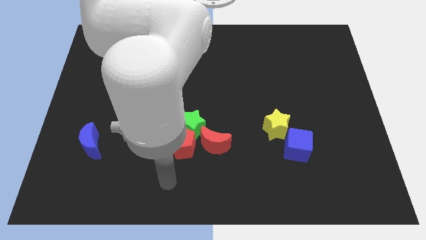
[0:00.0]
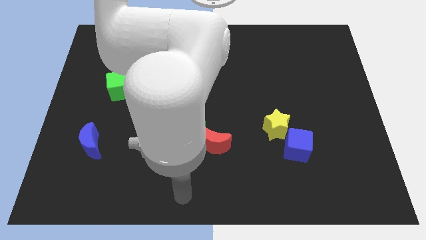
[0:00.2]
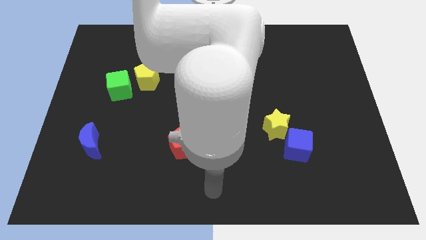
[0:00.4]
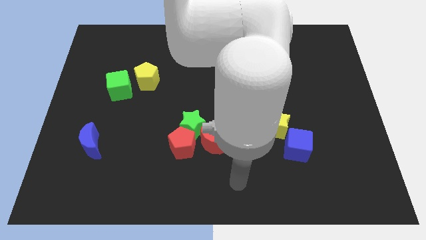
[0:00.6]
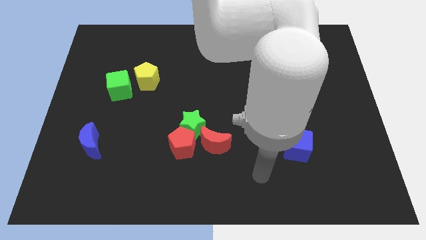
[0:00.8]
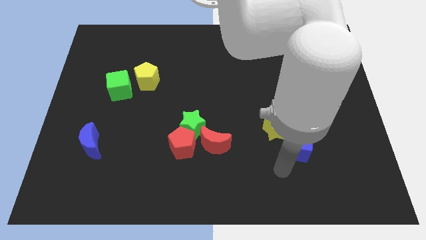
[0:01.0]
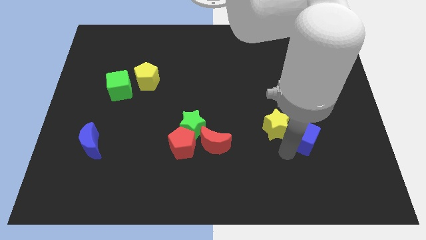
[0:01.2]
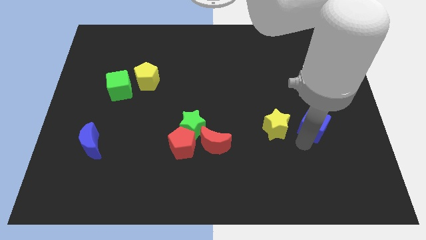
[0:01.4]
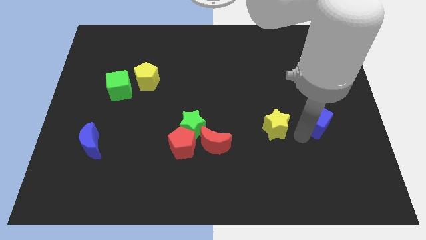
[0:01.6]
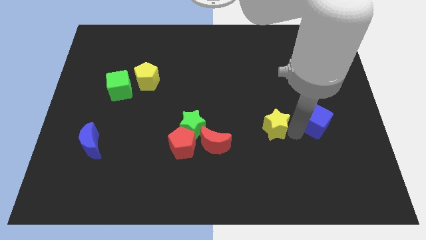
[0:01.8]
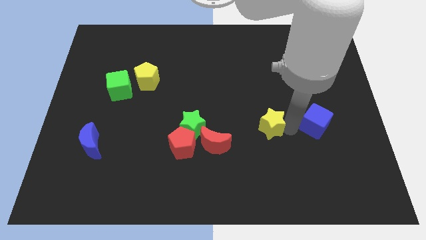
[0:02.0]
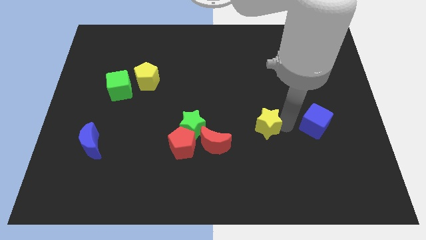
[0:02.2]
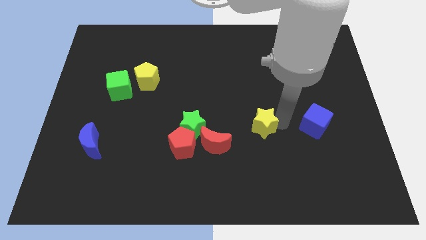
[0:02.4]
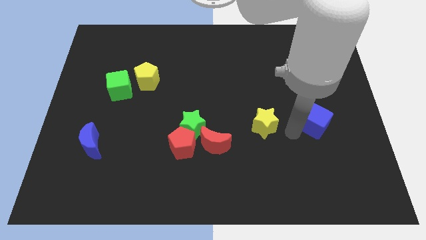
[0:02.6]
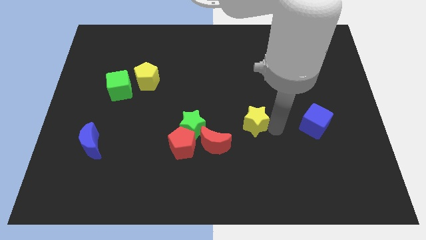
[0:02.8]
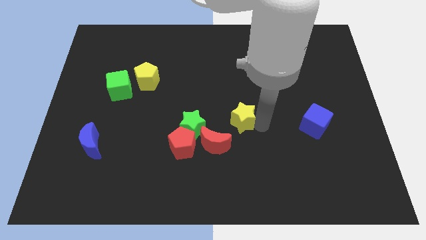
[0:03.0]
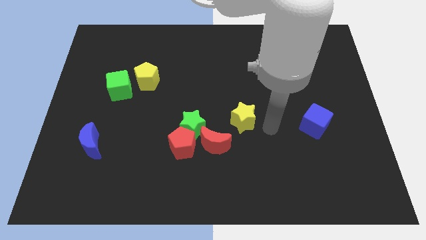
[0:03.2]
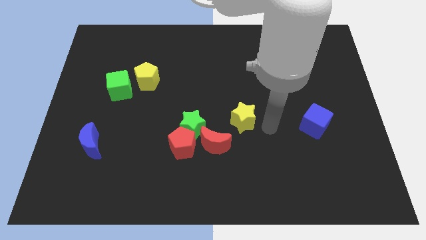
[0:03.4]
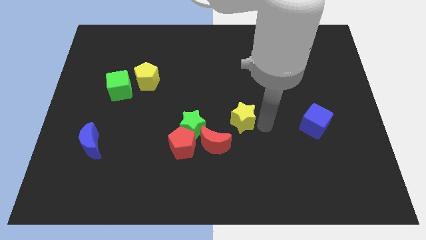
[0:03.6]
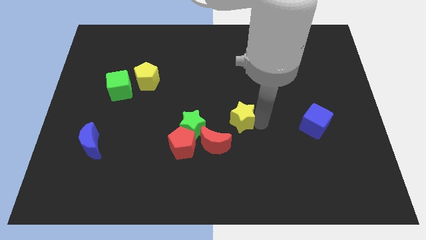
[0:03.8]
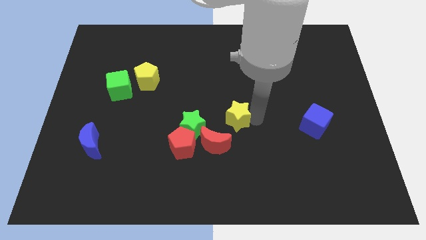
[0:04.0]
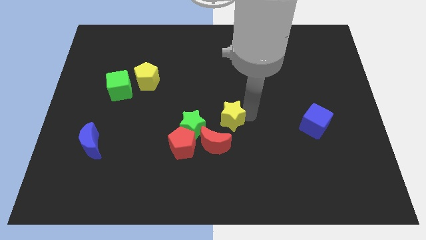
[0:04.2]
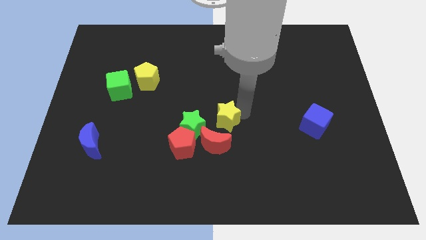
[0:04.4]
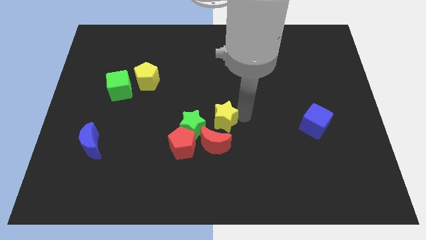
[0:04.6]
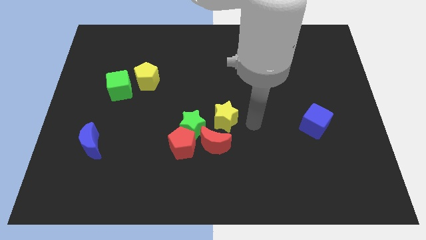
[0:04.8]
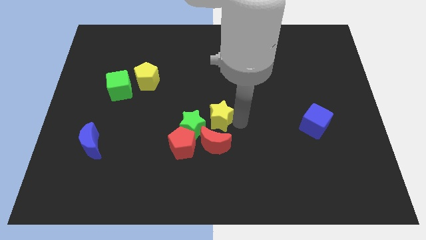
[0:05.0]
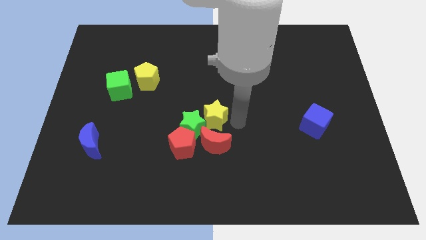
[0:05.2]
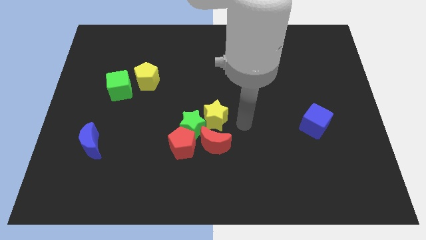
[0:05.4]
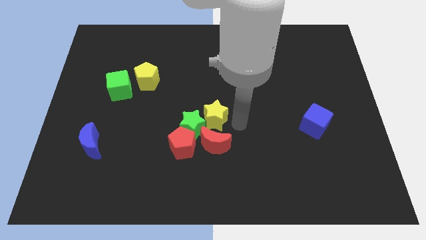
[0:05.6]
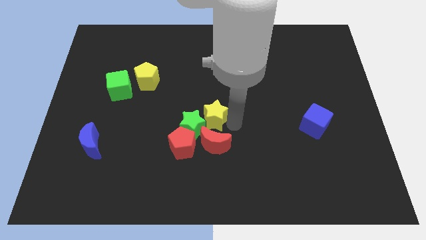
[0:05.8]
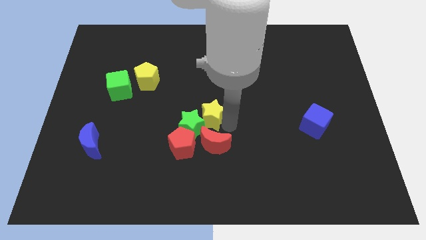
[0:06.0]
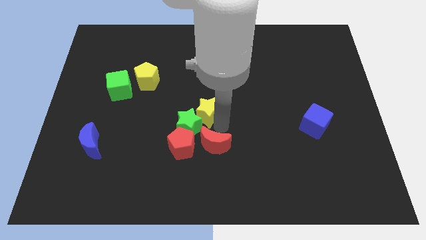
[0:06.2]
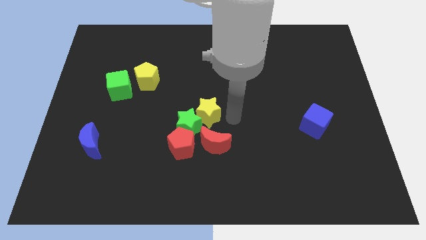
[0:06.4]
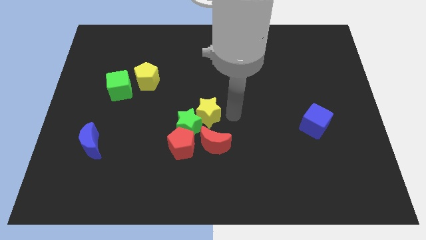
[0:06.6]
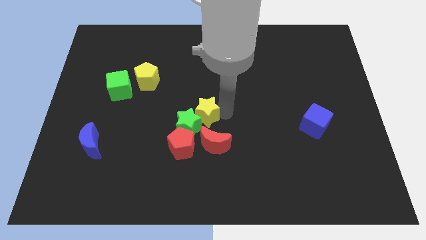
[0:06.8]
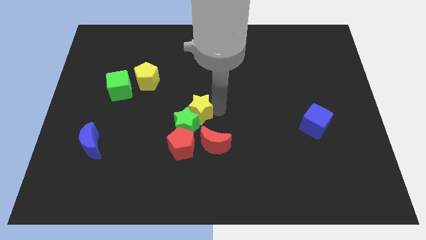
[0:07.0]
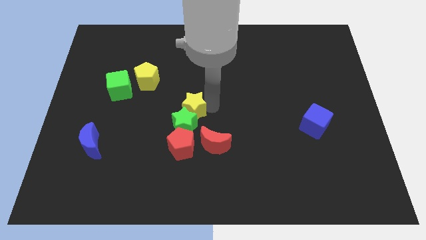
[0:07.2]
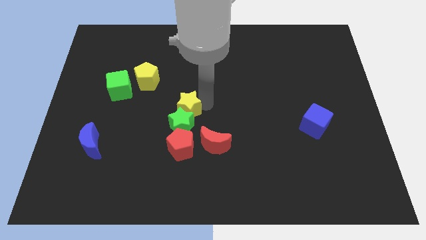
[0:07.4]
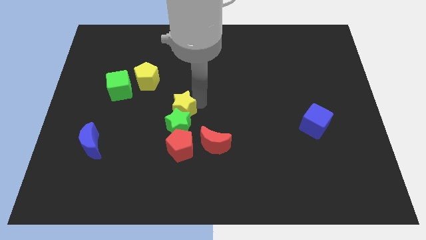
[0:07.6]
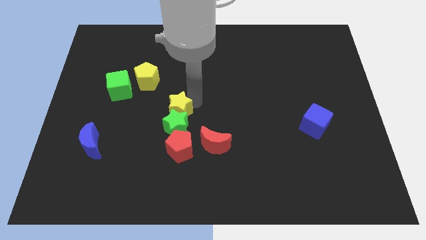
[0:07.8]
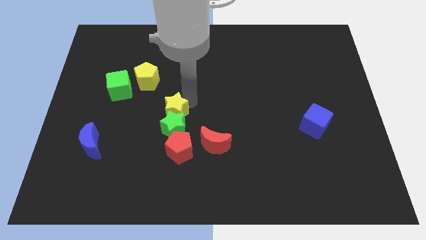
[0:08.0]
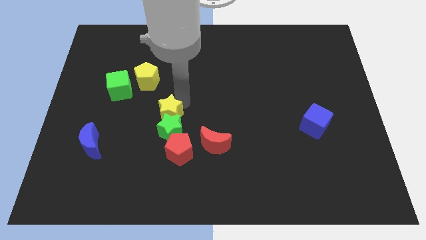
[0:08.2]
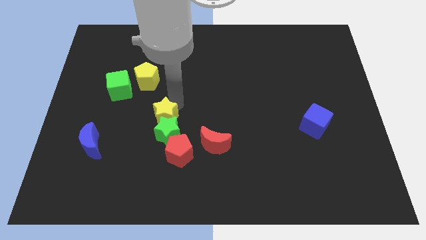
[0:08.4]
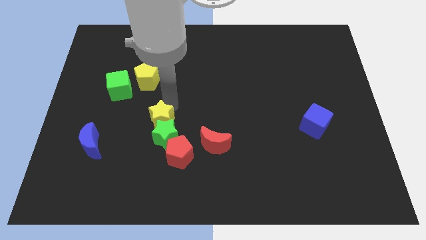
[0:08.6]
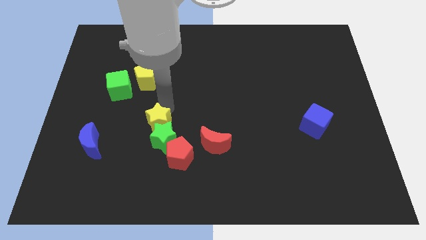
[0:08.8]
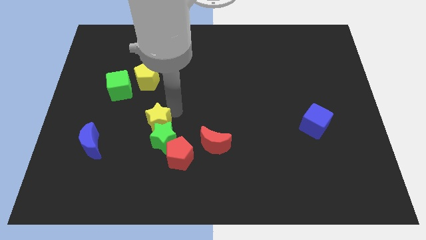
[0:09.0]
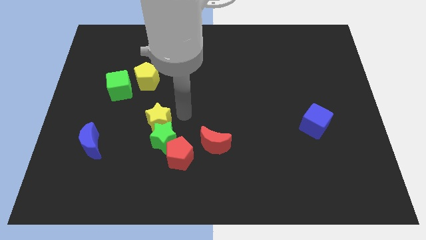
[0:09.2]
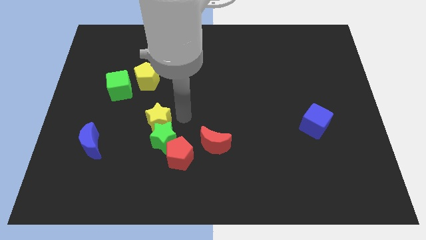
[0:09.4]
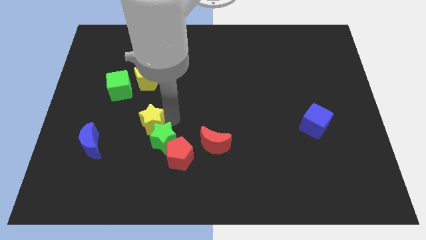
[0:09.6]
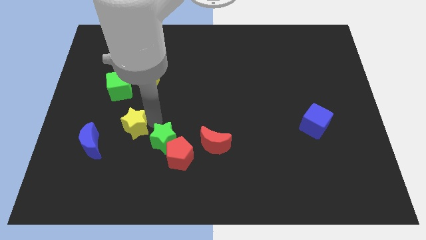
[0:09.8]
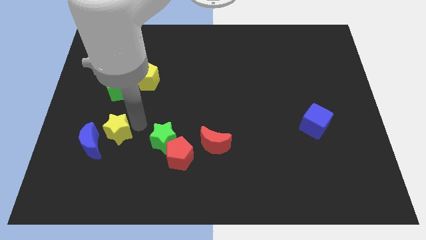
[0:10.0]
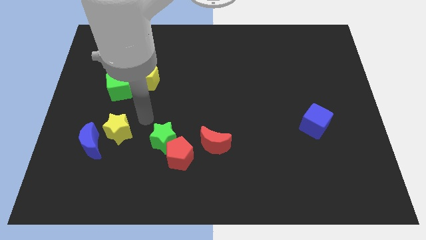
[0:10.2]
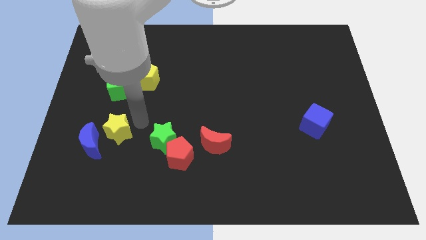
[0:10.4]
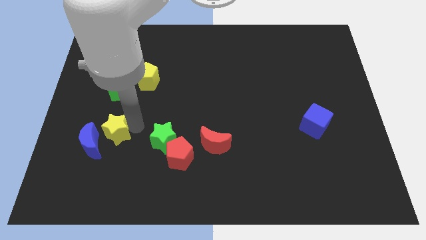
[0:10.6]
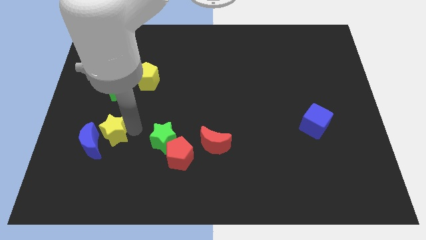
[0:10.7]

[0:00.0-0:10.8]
push the yellow star towards the blue moon

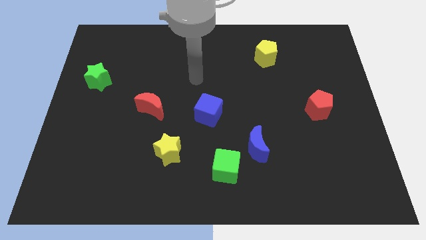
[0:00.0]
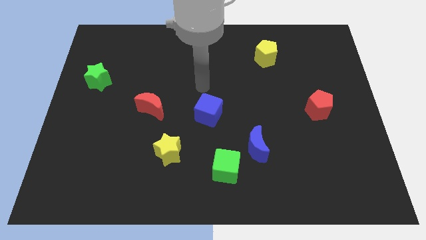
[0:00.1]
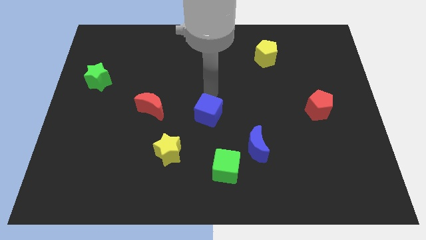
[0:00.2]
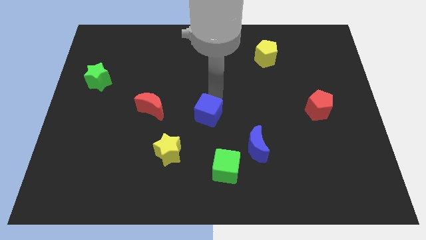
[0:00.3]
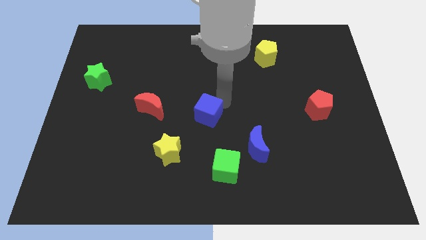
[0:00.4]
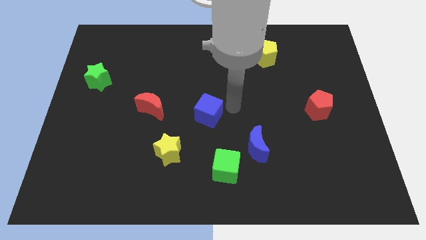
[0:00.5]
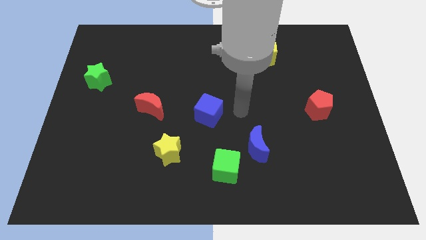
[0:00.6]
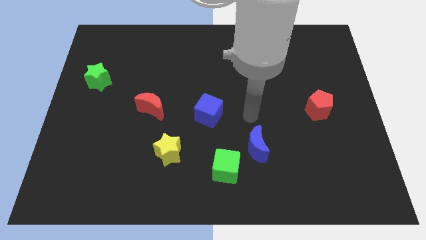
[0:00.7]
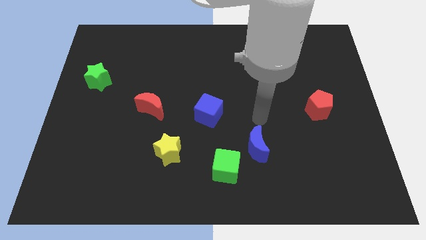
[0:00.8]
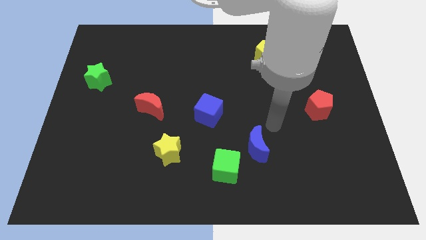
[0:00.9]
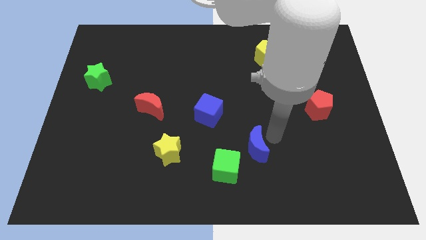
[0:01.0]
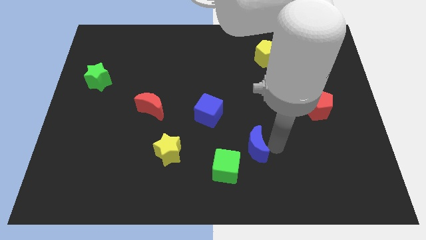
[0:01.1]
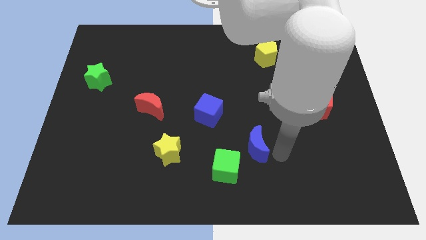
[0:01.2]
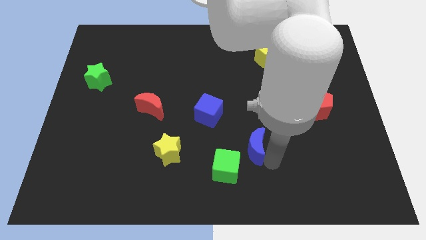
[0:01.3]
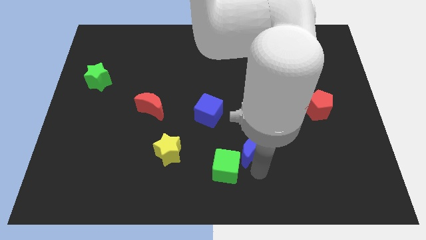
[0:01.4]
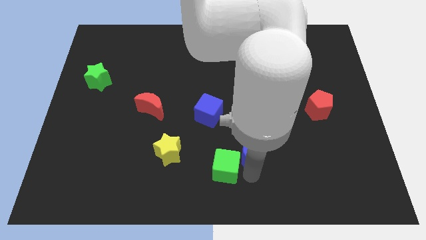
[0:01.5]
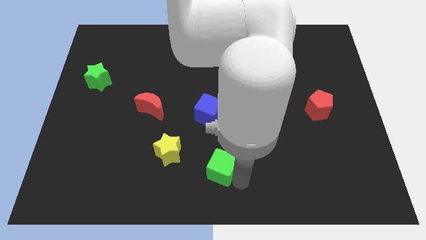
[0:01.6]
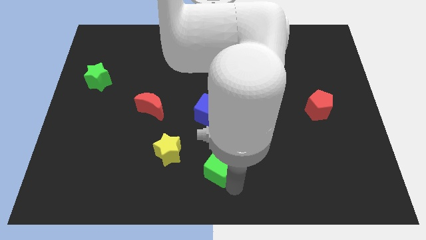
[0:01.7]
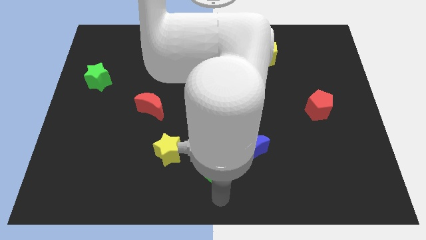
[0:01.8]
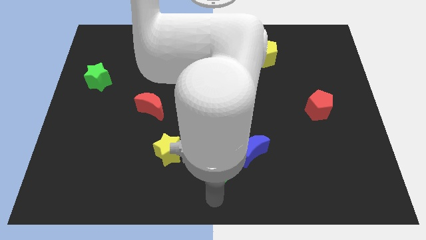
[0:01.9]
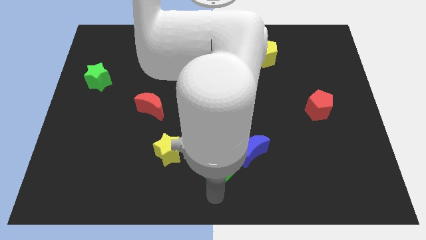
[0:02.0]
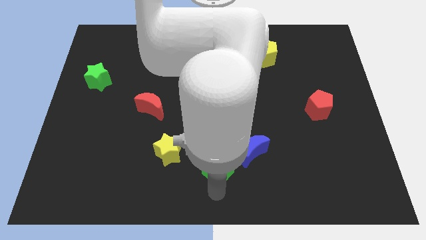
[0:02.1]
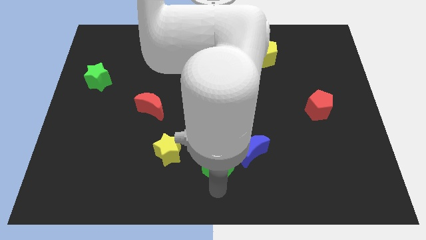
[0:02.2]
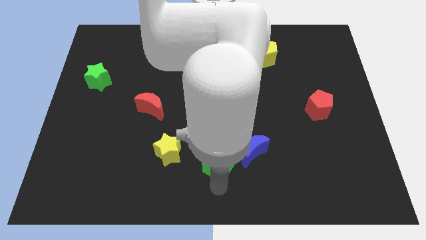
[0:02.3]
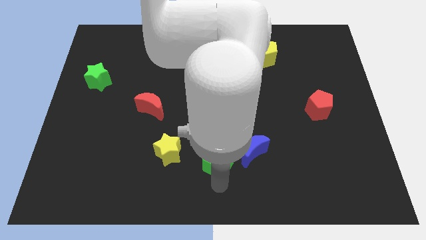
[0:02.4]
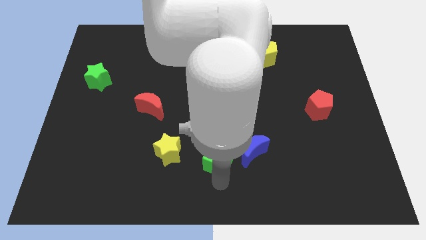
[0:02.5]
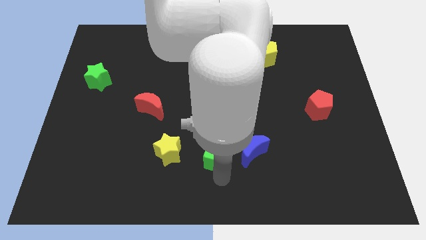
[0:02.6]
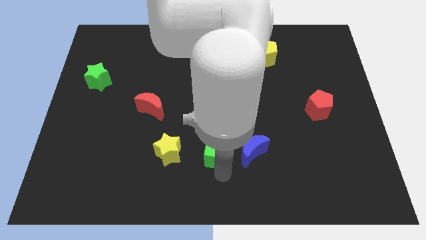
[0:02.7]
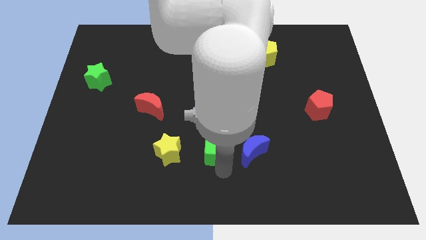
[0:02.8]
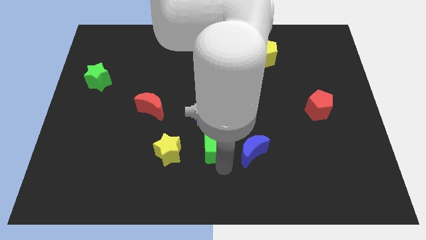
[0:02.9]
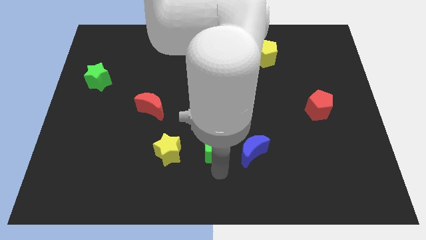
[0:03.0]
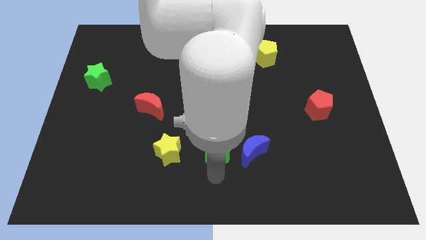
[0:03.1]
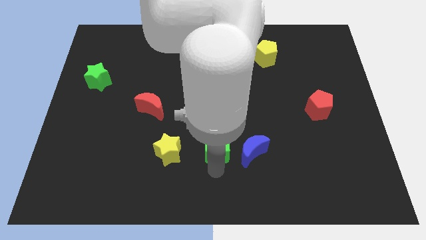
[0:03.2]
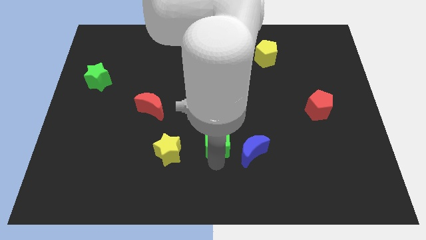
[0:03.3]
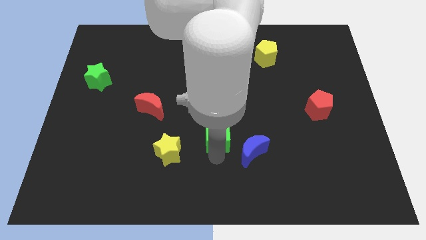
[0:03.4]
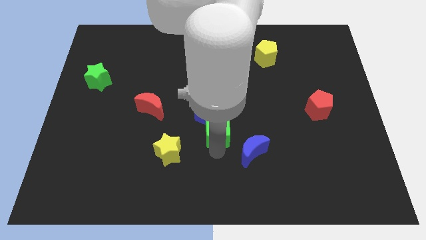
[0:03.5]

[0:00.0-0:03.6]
put the green cube next to the blue cube
